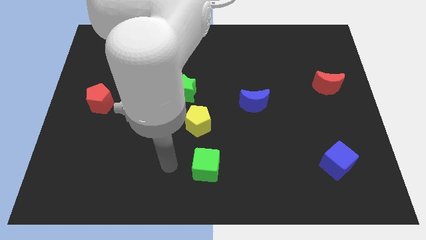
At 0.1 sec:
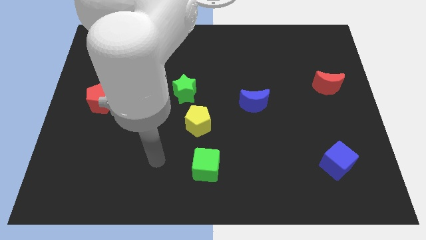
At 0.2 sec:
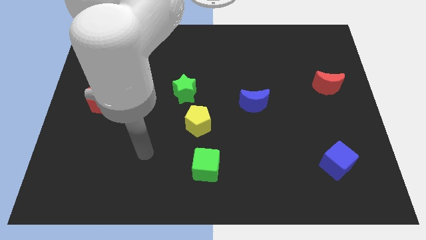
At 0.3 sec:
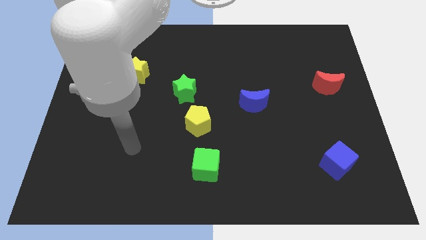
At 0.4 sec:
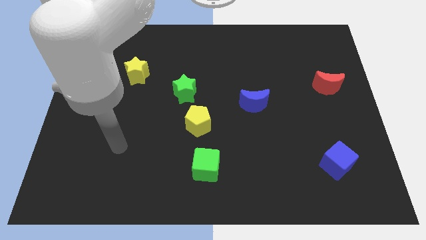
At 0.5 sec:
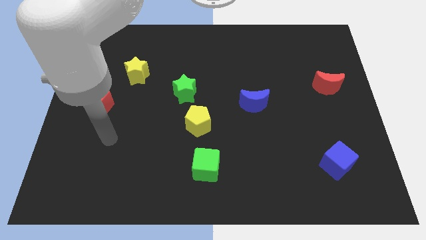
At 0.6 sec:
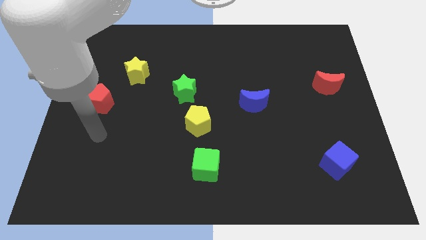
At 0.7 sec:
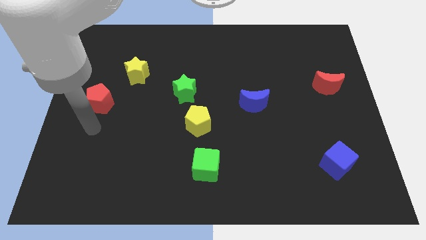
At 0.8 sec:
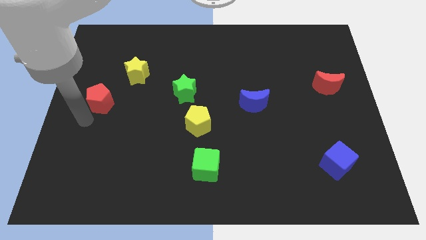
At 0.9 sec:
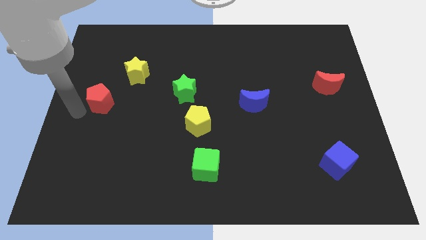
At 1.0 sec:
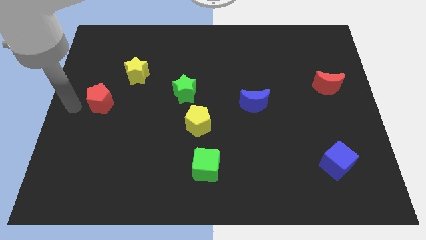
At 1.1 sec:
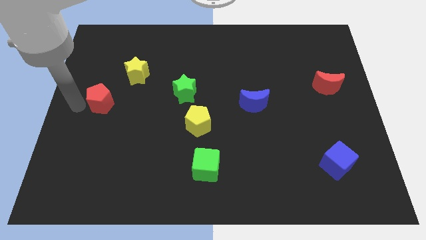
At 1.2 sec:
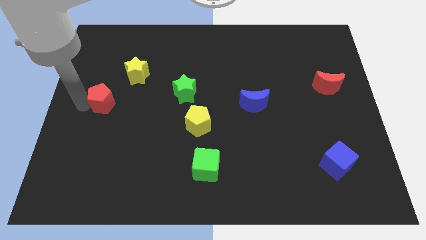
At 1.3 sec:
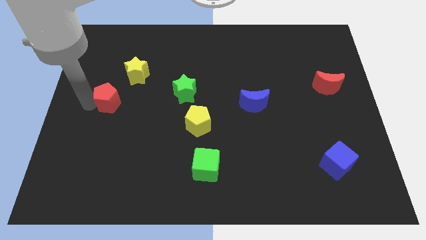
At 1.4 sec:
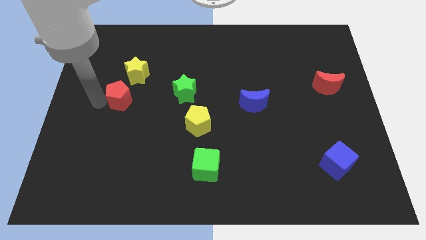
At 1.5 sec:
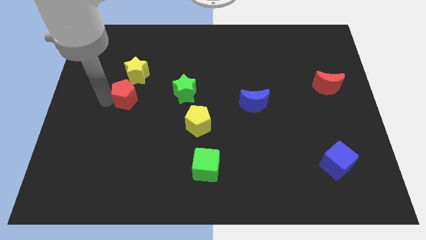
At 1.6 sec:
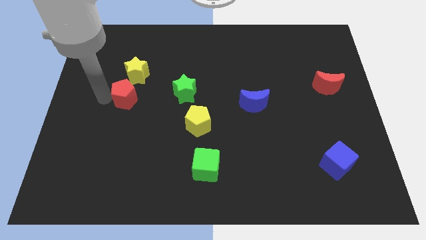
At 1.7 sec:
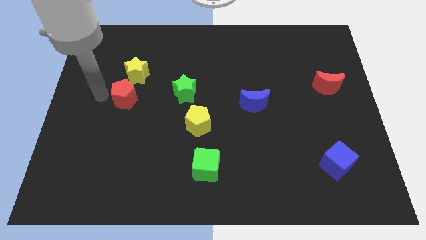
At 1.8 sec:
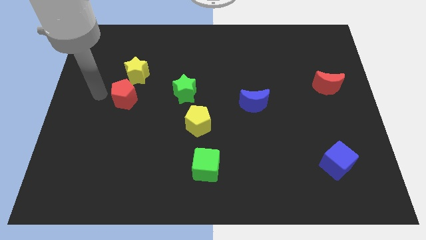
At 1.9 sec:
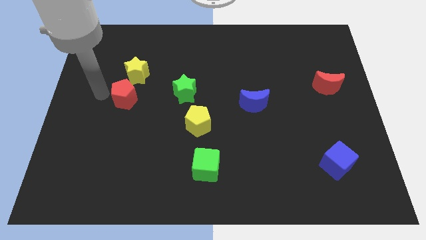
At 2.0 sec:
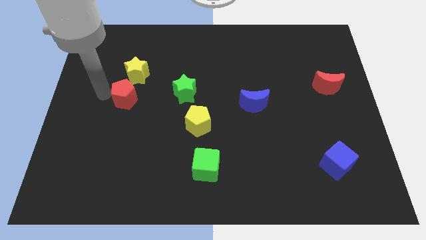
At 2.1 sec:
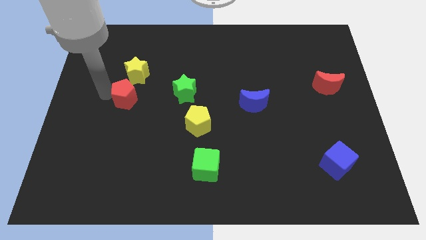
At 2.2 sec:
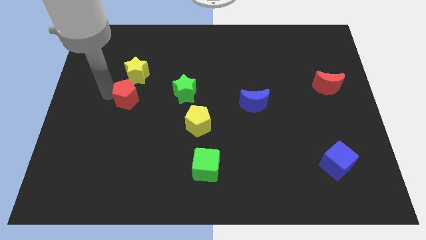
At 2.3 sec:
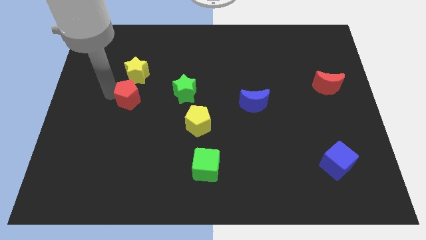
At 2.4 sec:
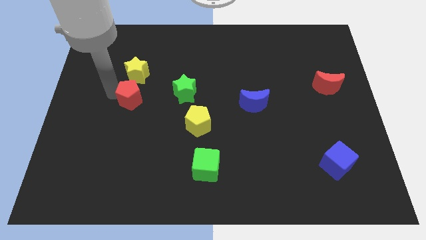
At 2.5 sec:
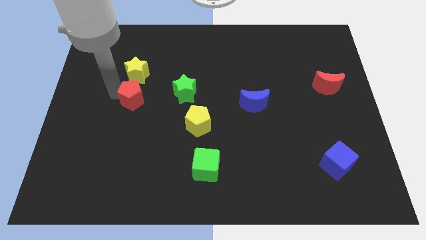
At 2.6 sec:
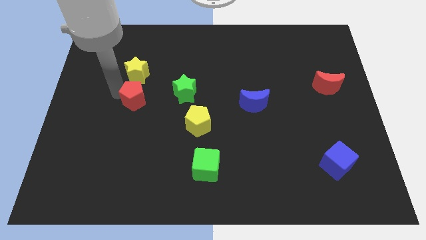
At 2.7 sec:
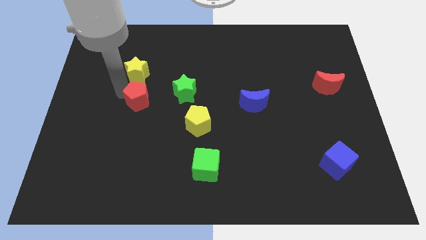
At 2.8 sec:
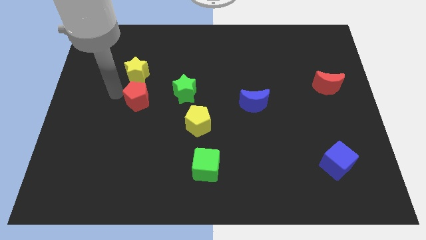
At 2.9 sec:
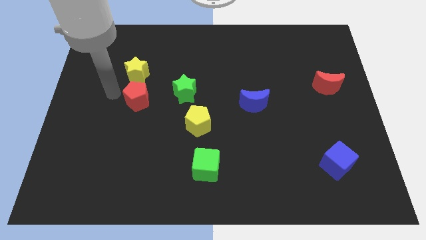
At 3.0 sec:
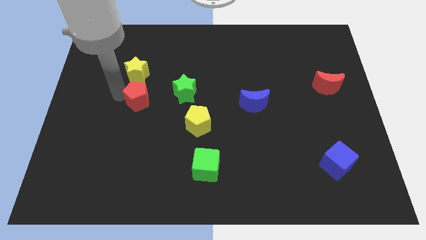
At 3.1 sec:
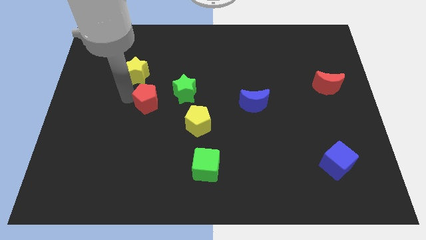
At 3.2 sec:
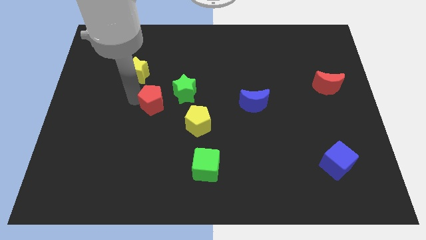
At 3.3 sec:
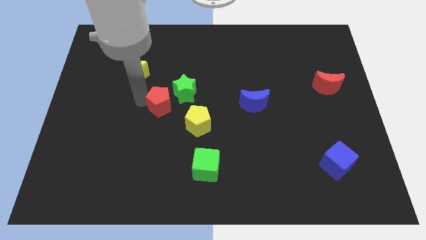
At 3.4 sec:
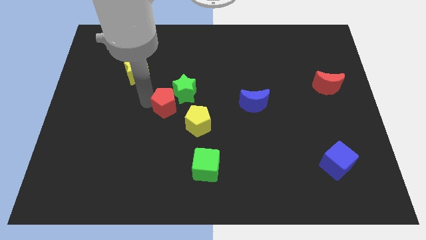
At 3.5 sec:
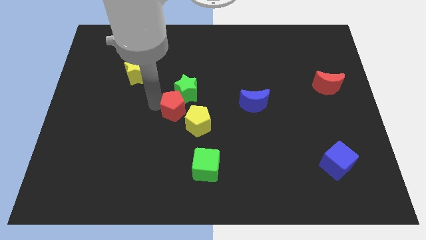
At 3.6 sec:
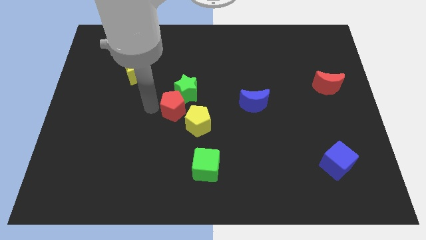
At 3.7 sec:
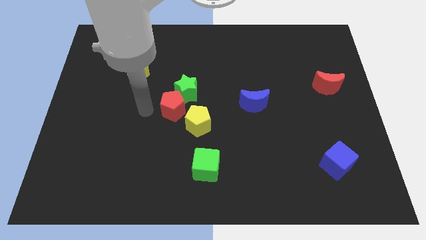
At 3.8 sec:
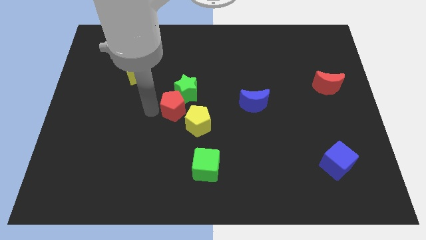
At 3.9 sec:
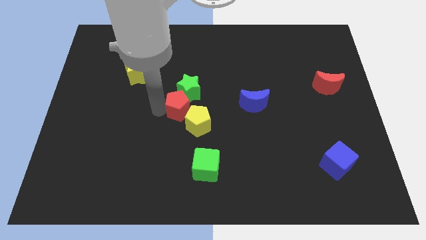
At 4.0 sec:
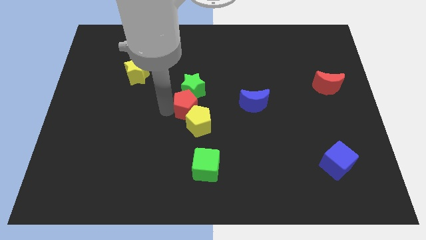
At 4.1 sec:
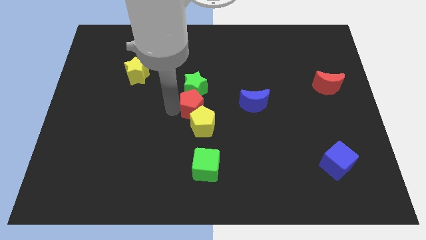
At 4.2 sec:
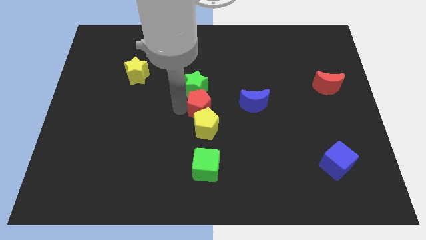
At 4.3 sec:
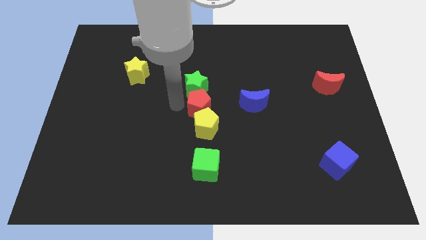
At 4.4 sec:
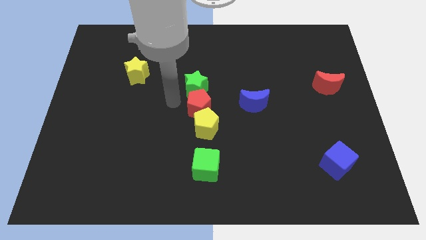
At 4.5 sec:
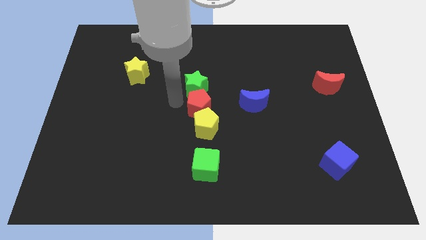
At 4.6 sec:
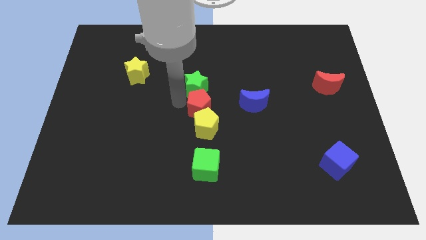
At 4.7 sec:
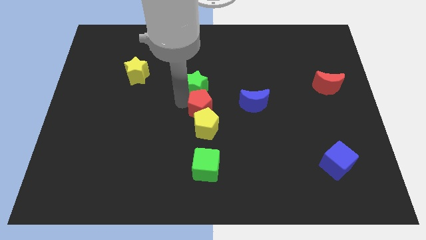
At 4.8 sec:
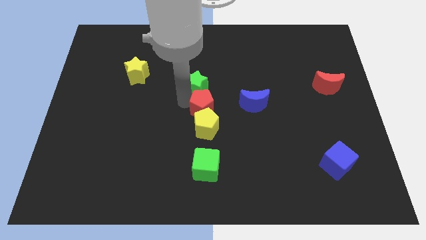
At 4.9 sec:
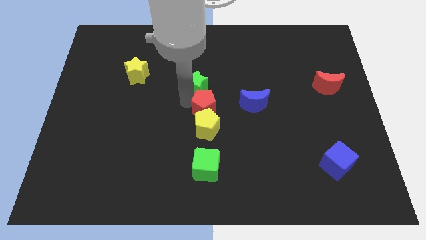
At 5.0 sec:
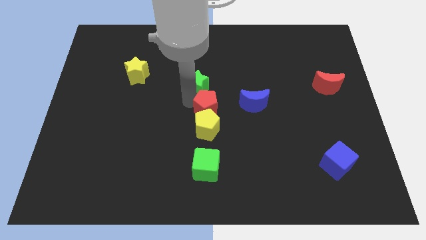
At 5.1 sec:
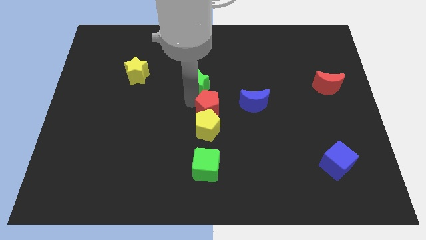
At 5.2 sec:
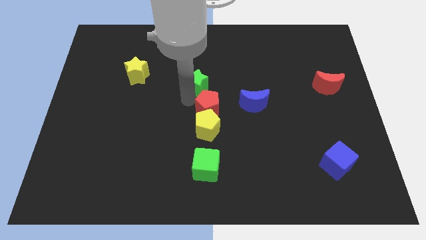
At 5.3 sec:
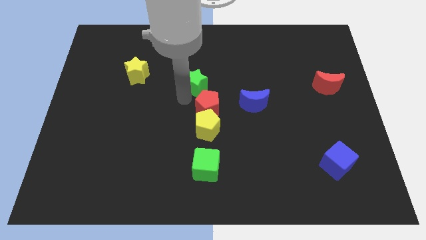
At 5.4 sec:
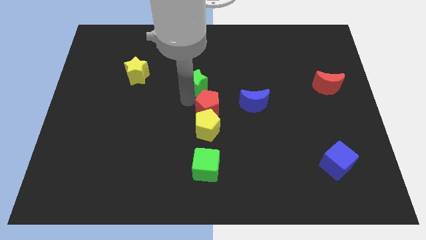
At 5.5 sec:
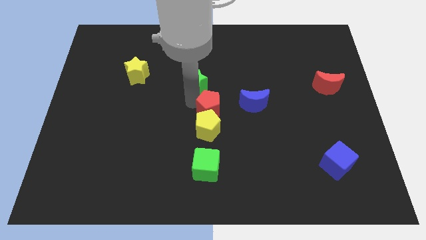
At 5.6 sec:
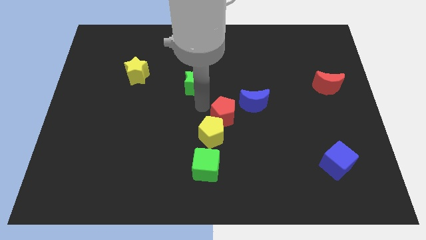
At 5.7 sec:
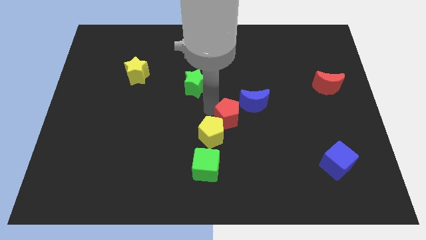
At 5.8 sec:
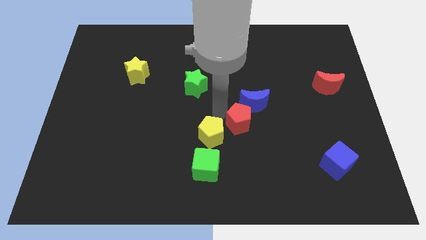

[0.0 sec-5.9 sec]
slide the red pentagon right of the yellow pentagon

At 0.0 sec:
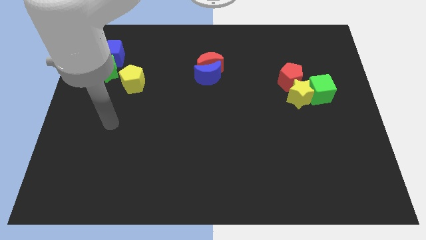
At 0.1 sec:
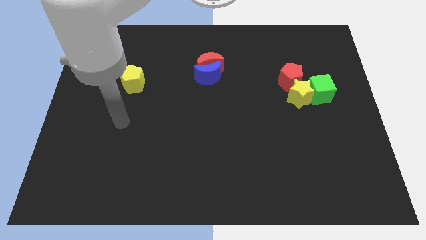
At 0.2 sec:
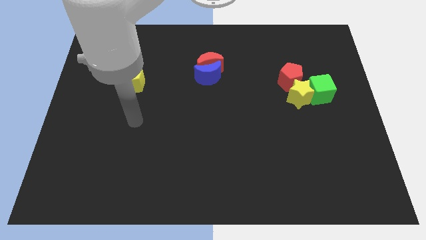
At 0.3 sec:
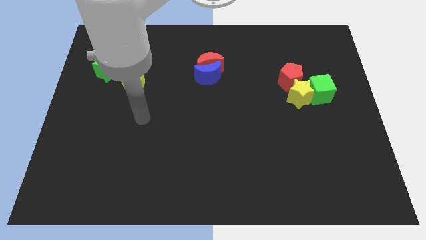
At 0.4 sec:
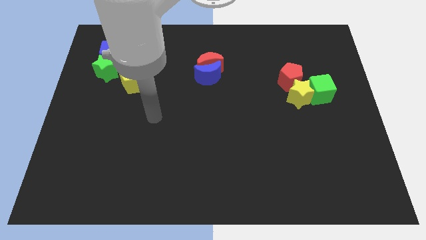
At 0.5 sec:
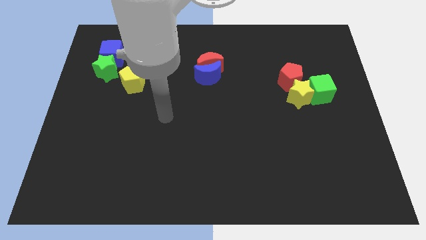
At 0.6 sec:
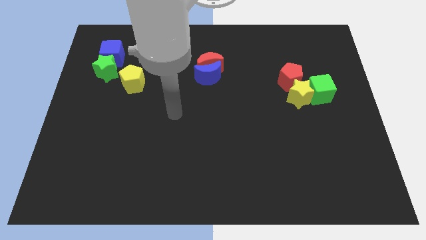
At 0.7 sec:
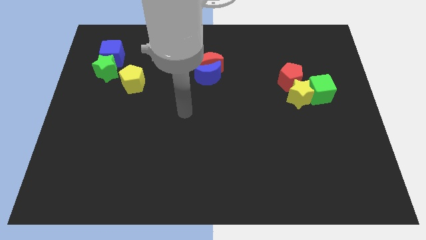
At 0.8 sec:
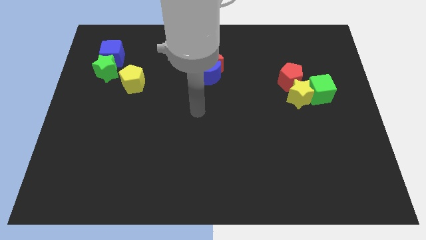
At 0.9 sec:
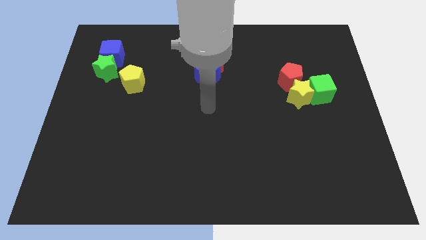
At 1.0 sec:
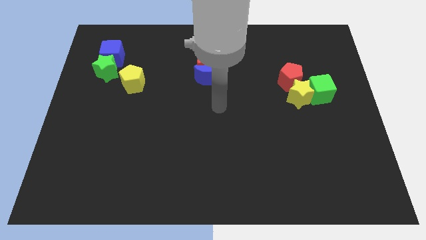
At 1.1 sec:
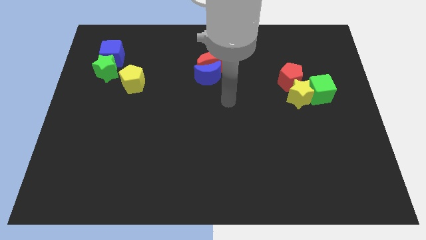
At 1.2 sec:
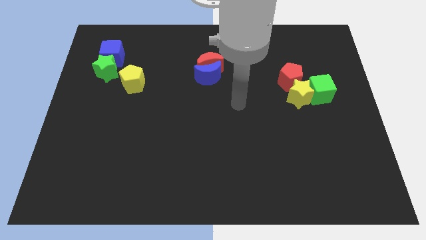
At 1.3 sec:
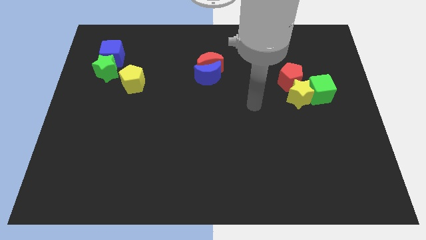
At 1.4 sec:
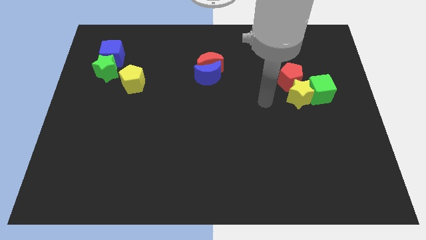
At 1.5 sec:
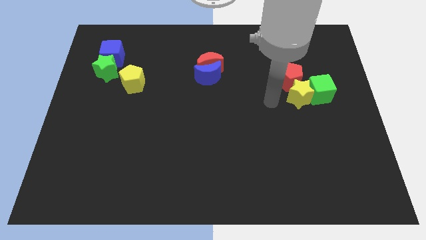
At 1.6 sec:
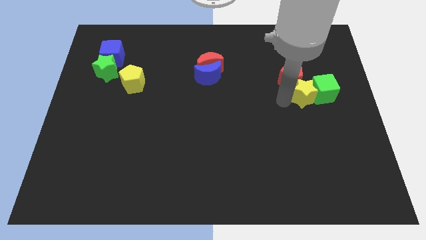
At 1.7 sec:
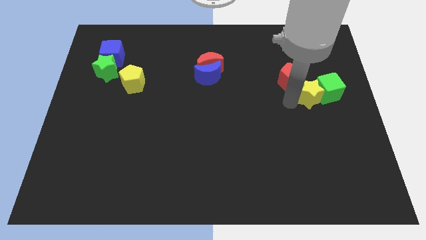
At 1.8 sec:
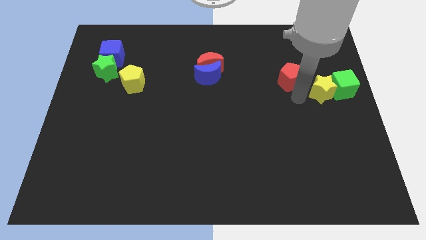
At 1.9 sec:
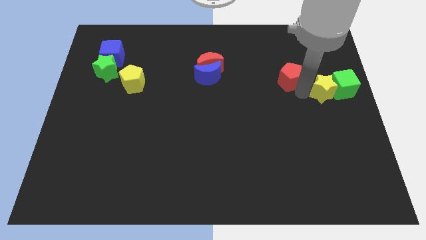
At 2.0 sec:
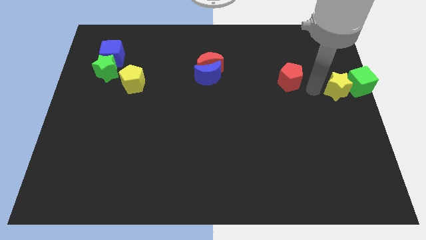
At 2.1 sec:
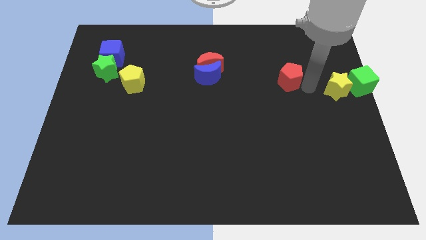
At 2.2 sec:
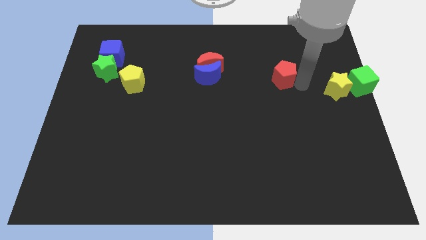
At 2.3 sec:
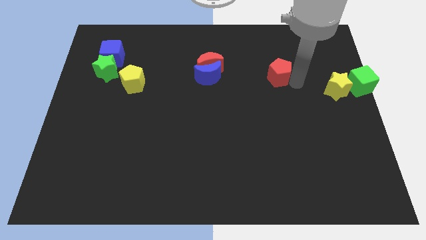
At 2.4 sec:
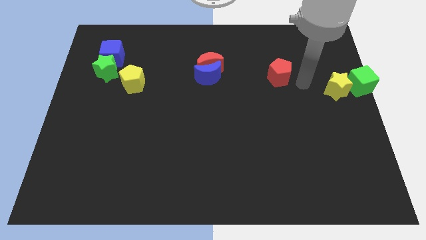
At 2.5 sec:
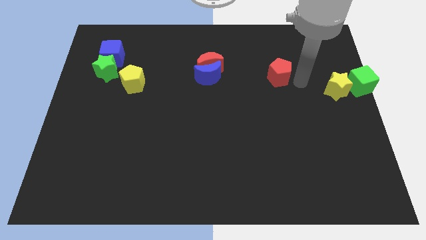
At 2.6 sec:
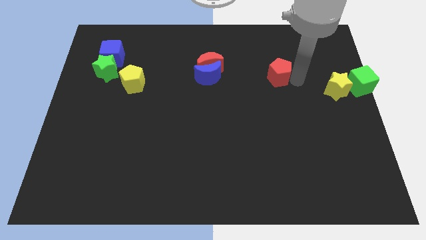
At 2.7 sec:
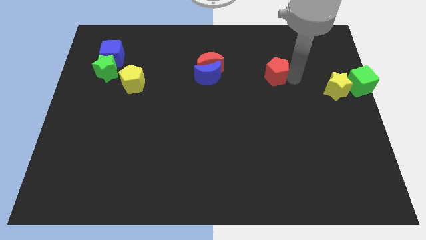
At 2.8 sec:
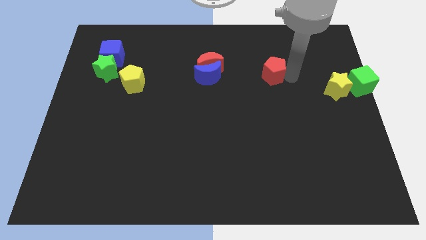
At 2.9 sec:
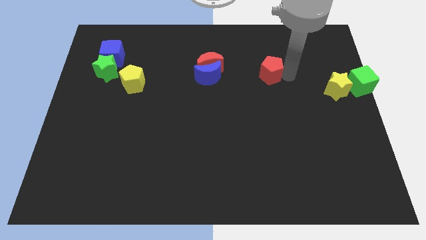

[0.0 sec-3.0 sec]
slide the red pentagon to the right side of the red moon
